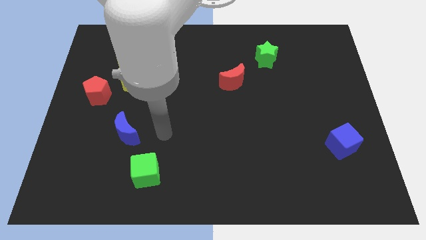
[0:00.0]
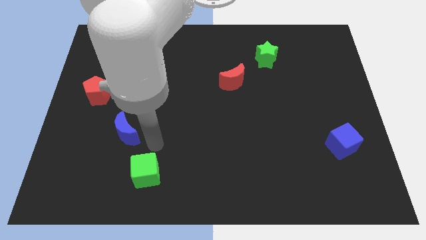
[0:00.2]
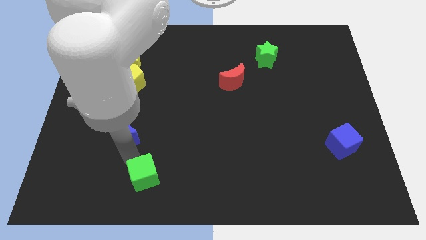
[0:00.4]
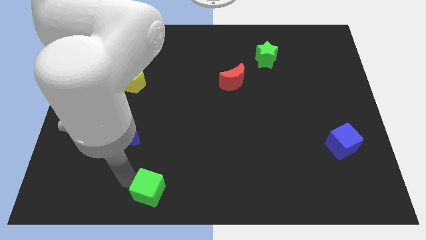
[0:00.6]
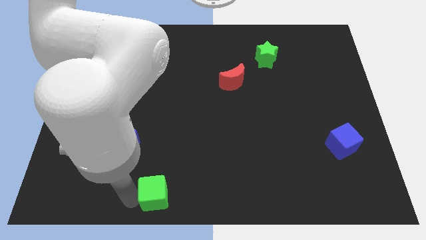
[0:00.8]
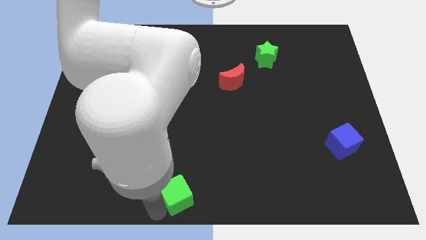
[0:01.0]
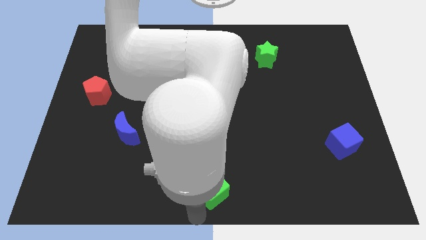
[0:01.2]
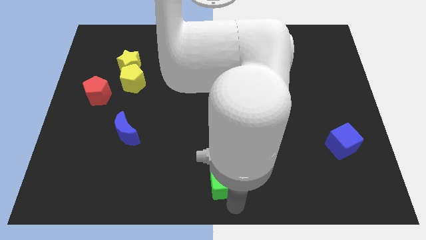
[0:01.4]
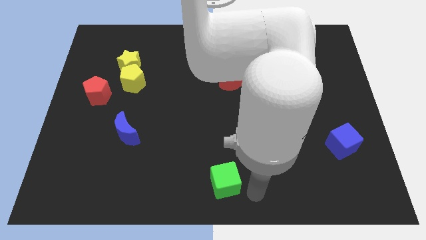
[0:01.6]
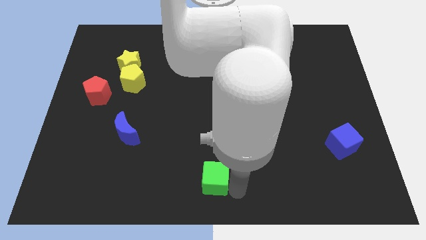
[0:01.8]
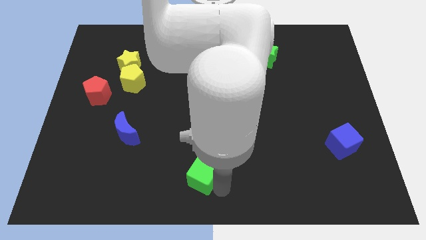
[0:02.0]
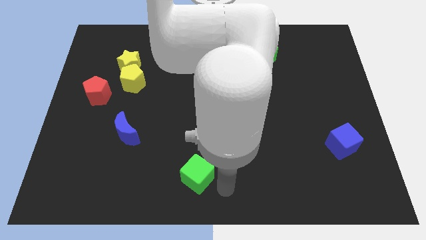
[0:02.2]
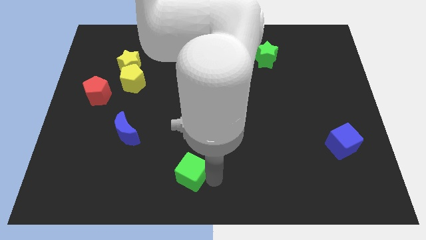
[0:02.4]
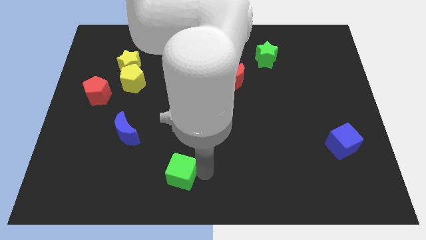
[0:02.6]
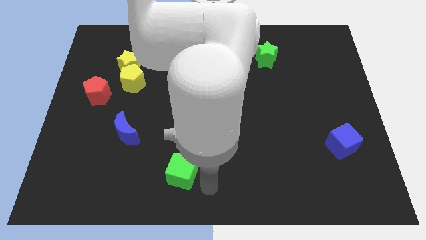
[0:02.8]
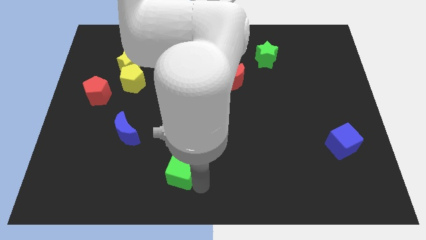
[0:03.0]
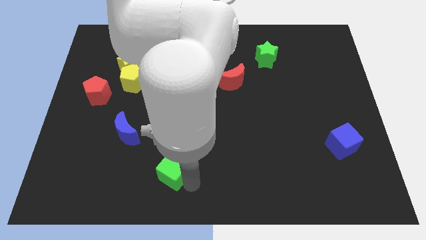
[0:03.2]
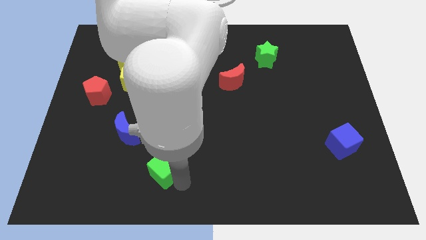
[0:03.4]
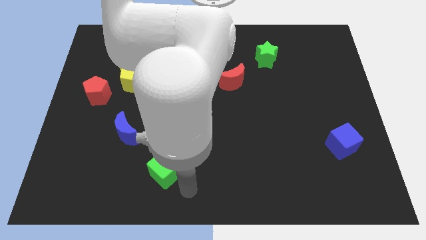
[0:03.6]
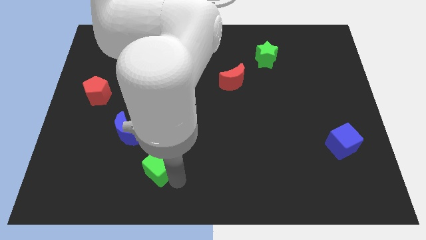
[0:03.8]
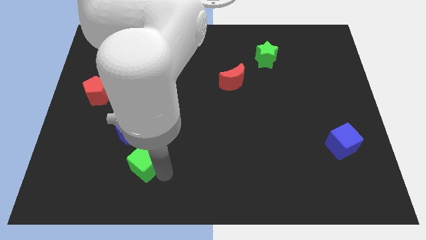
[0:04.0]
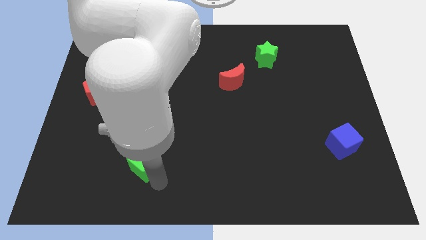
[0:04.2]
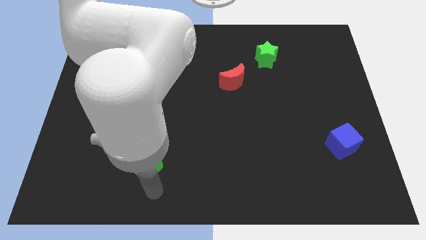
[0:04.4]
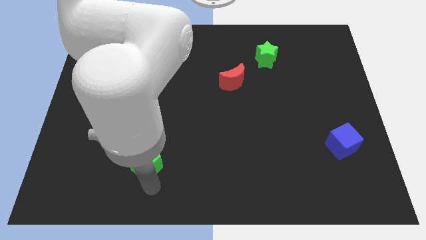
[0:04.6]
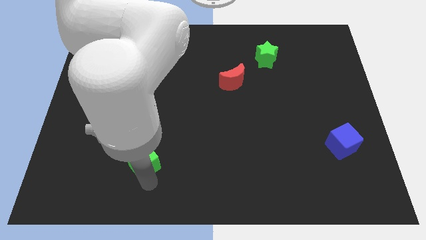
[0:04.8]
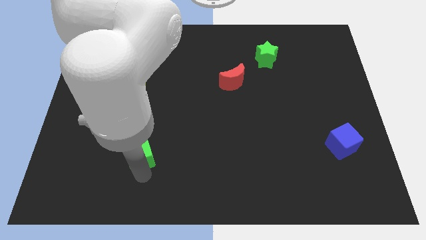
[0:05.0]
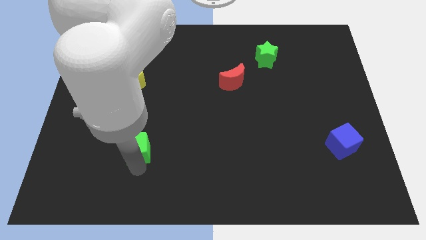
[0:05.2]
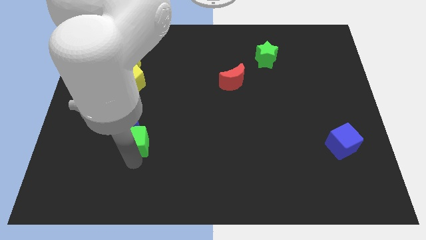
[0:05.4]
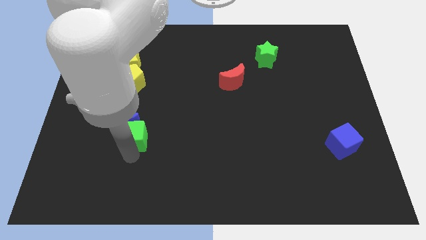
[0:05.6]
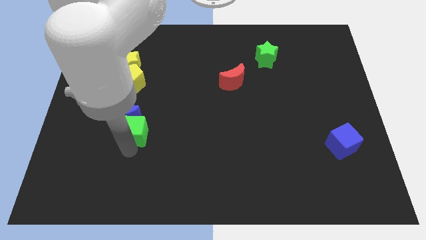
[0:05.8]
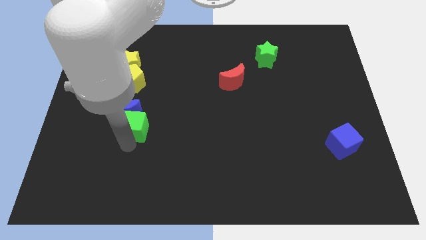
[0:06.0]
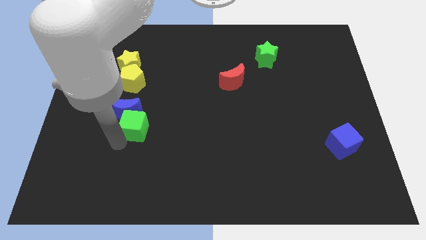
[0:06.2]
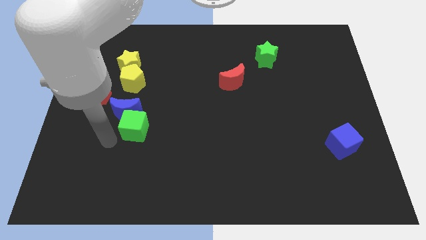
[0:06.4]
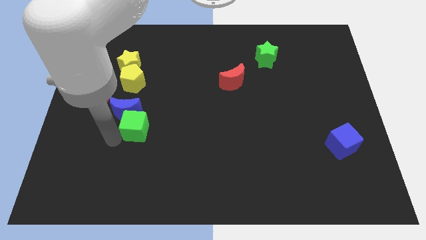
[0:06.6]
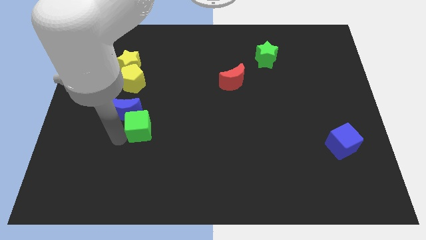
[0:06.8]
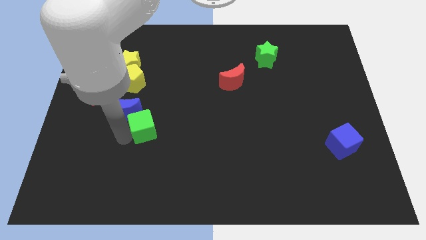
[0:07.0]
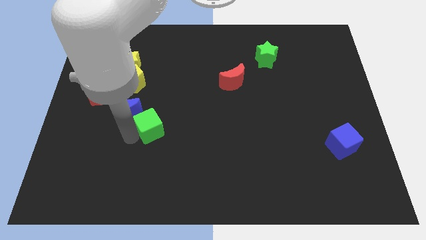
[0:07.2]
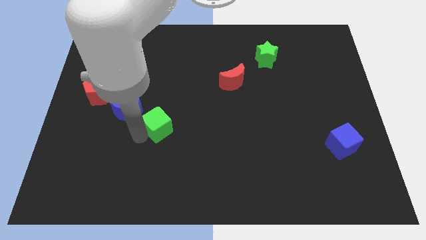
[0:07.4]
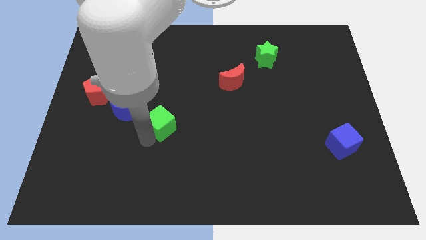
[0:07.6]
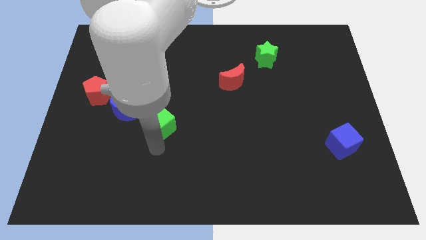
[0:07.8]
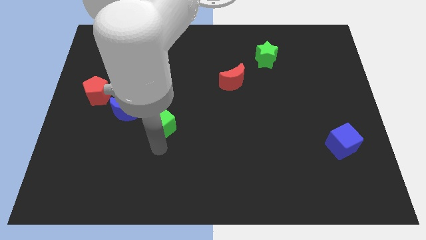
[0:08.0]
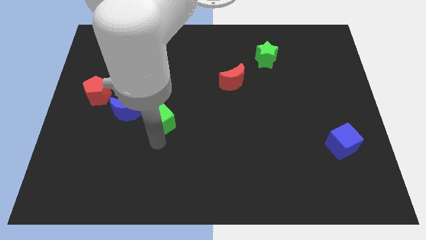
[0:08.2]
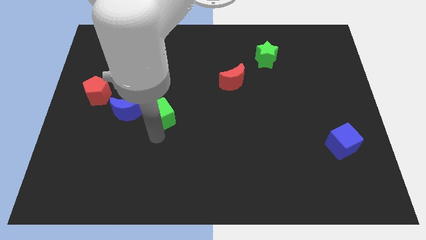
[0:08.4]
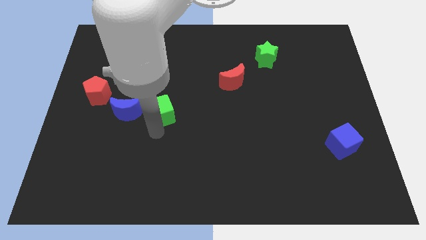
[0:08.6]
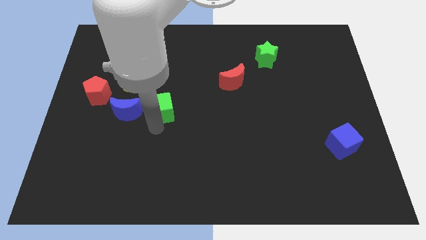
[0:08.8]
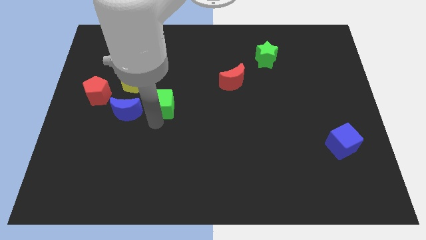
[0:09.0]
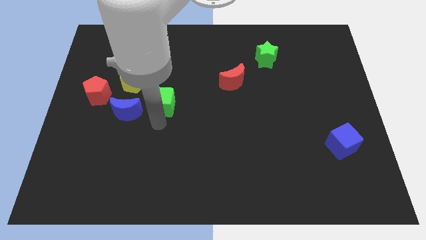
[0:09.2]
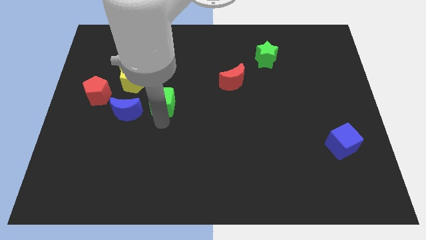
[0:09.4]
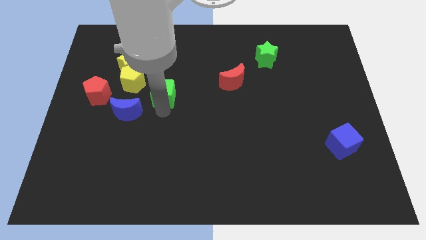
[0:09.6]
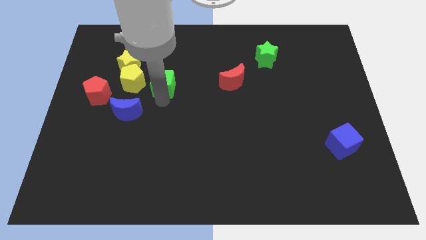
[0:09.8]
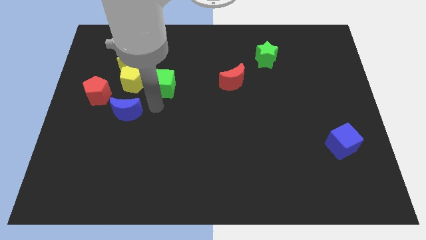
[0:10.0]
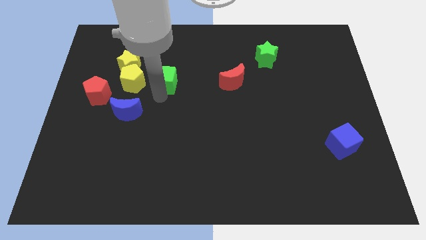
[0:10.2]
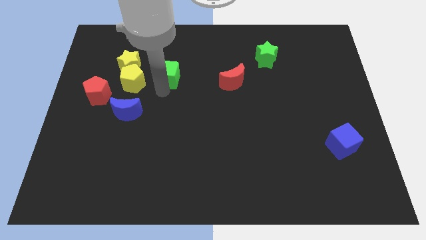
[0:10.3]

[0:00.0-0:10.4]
push the green cube to the right side of the yellow star

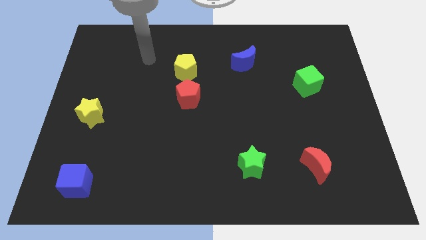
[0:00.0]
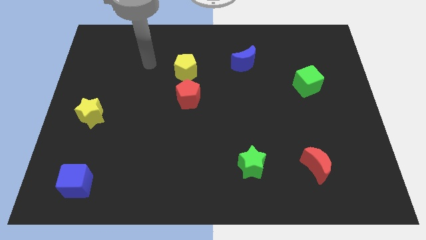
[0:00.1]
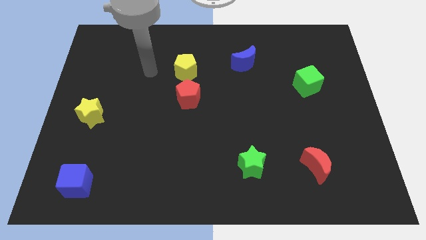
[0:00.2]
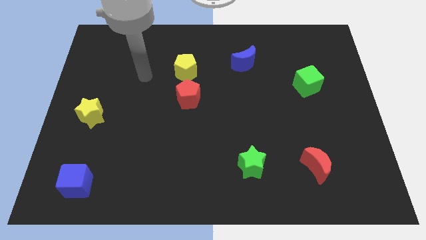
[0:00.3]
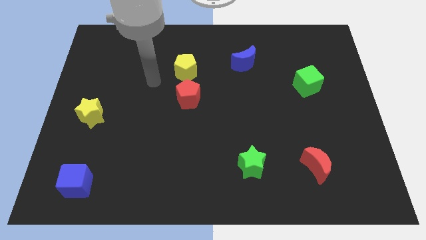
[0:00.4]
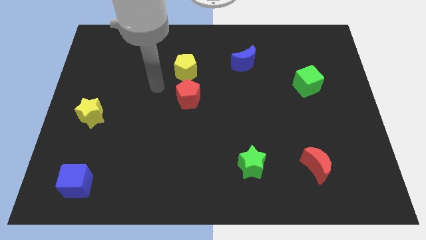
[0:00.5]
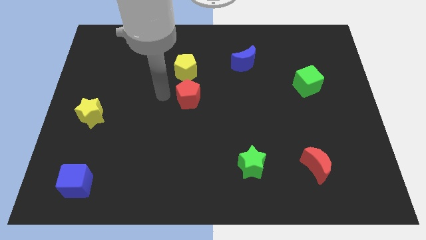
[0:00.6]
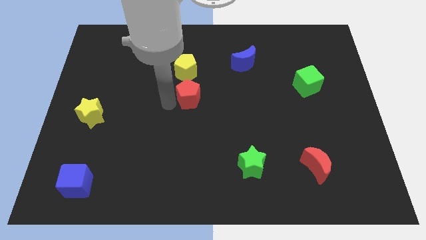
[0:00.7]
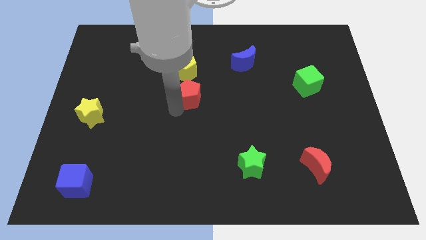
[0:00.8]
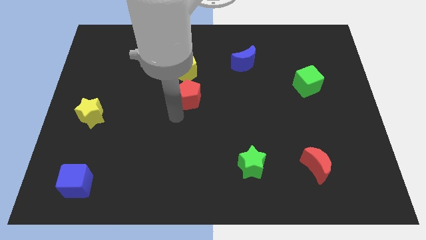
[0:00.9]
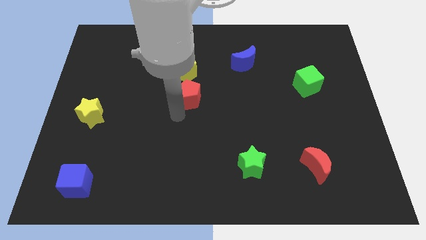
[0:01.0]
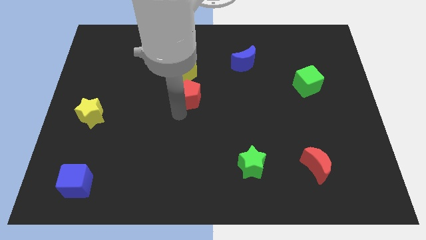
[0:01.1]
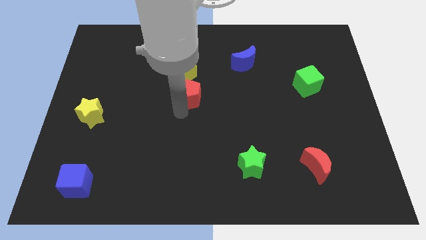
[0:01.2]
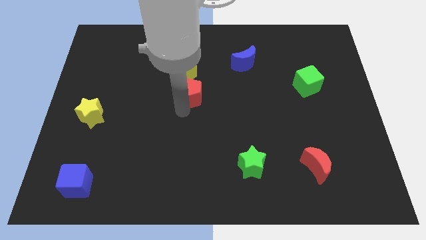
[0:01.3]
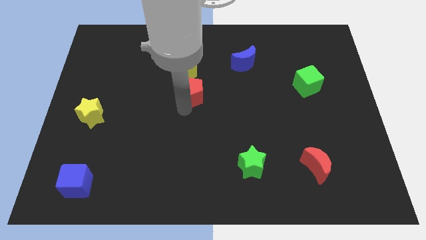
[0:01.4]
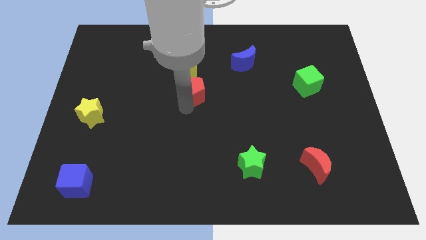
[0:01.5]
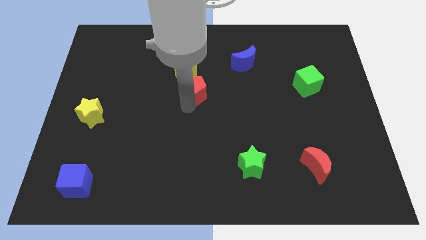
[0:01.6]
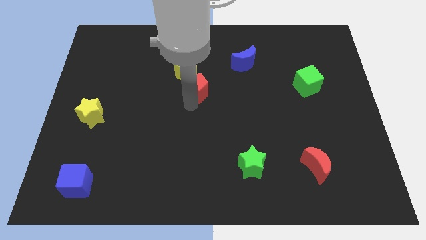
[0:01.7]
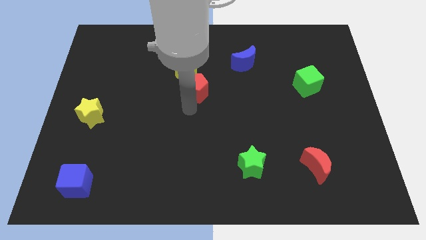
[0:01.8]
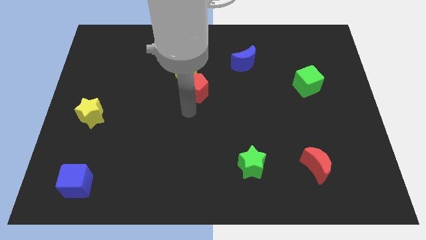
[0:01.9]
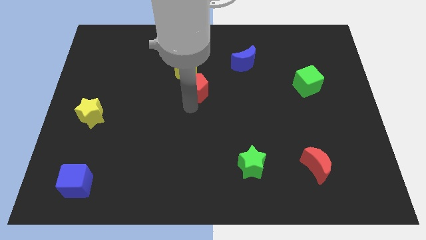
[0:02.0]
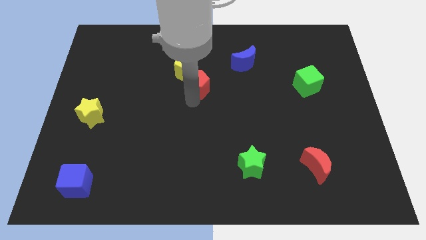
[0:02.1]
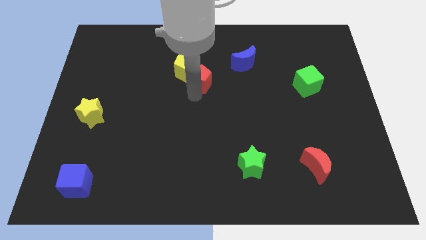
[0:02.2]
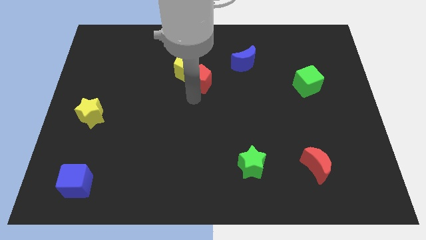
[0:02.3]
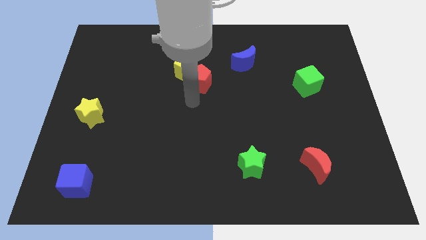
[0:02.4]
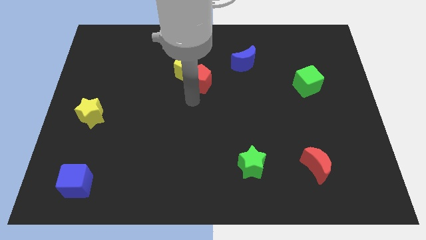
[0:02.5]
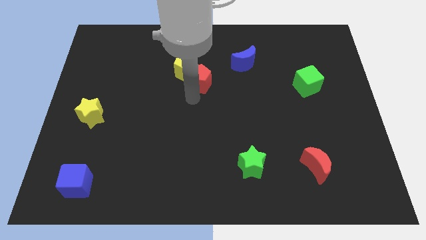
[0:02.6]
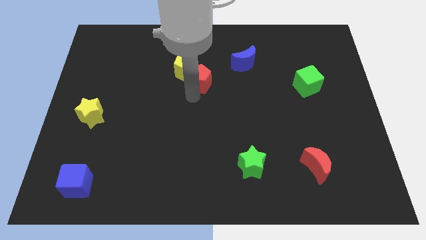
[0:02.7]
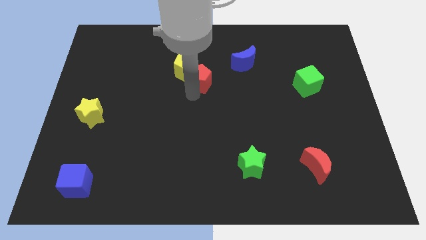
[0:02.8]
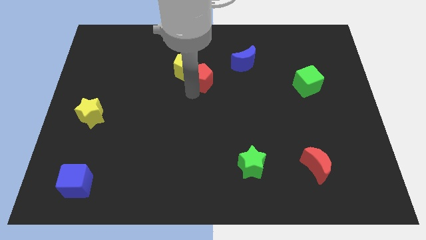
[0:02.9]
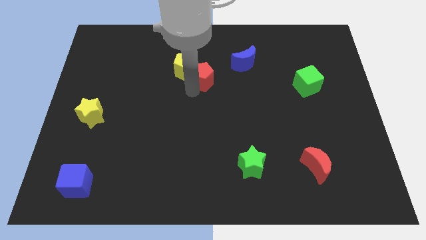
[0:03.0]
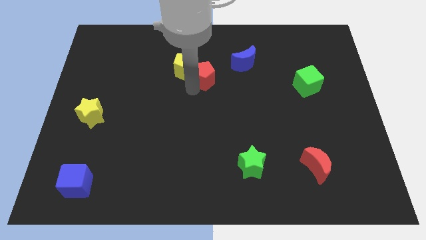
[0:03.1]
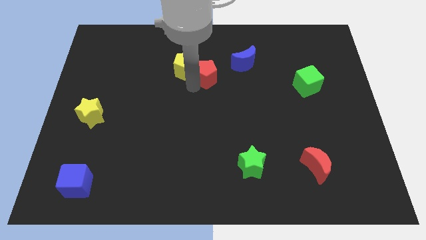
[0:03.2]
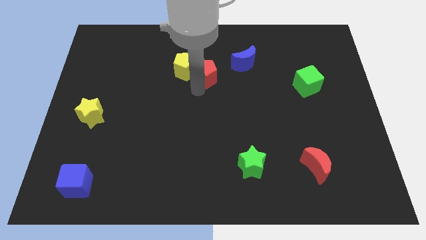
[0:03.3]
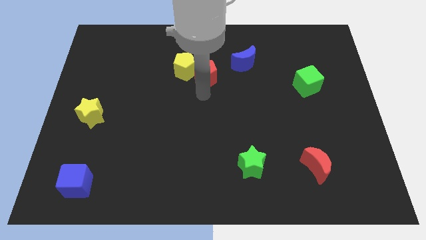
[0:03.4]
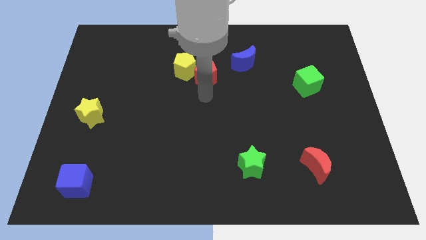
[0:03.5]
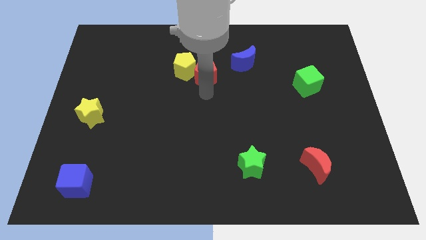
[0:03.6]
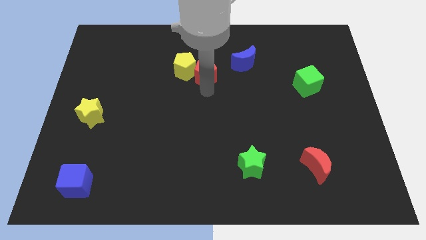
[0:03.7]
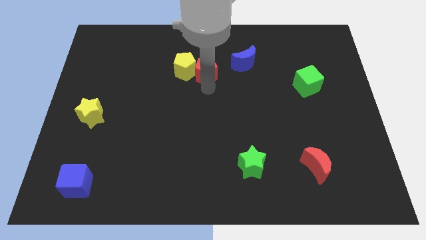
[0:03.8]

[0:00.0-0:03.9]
put the red pentagon to the top right of the yellow pentagon
